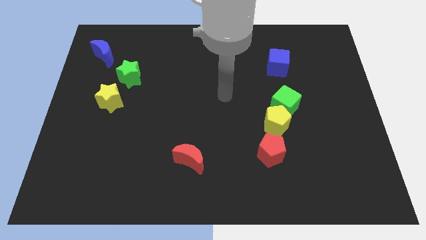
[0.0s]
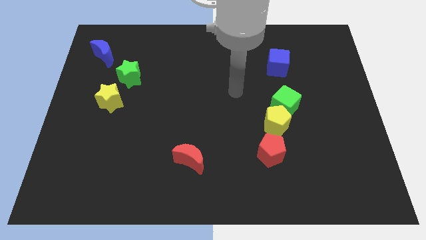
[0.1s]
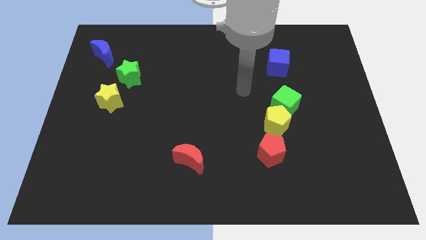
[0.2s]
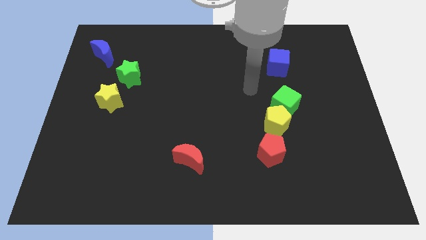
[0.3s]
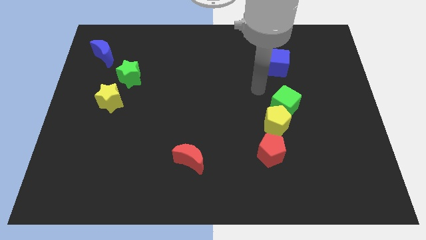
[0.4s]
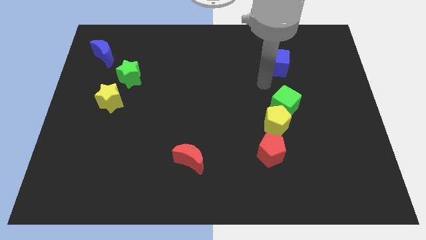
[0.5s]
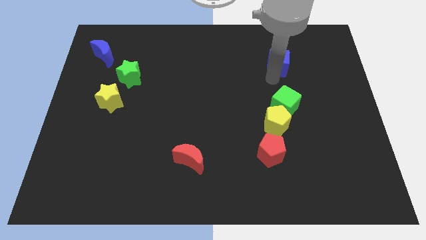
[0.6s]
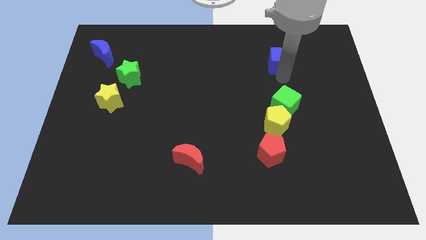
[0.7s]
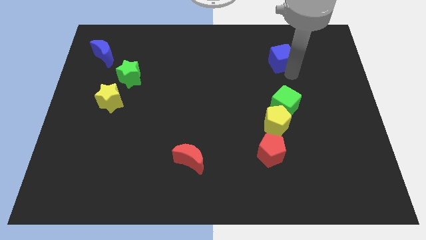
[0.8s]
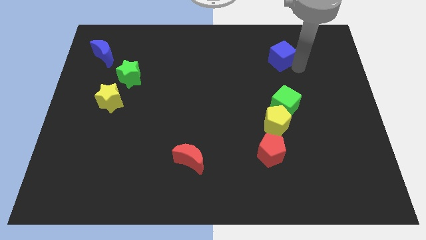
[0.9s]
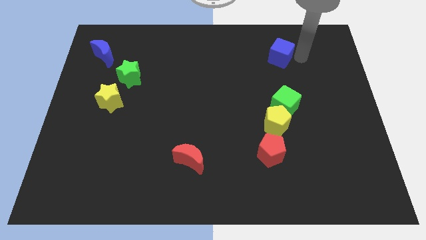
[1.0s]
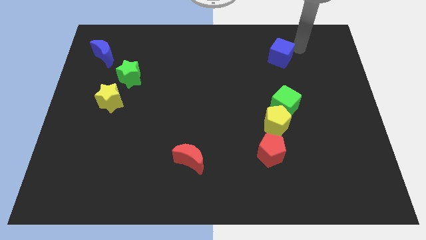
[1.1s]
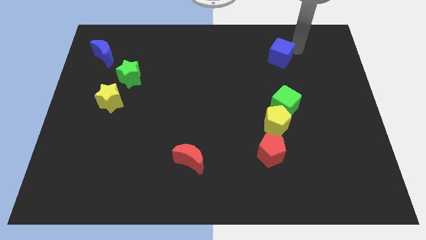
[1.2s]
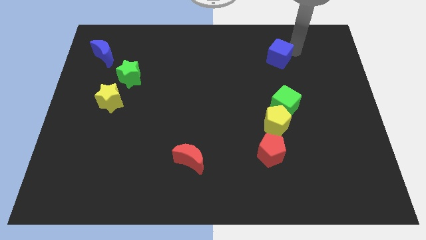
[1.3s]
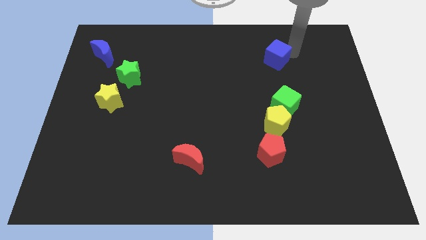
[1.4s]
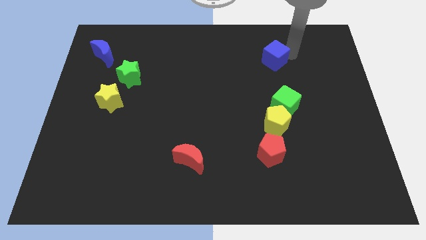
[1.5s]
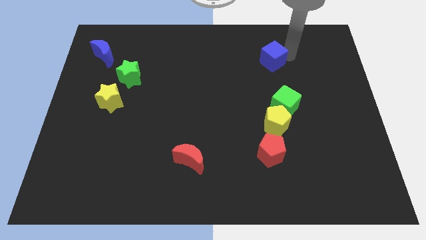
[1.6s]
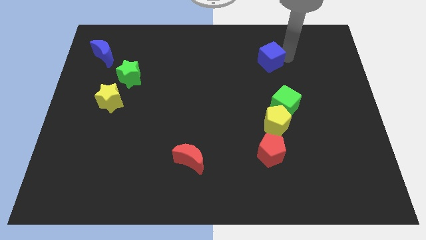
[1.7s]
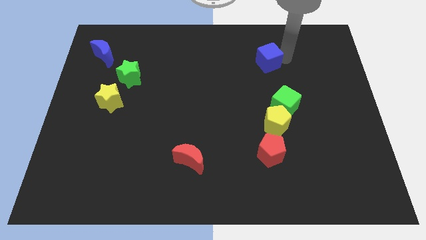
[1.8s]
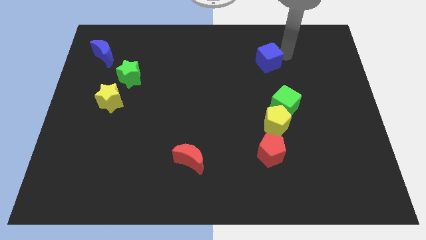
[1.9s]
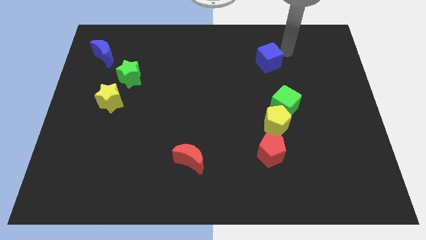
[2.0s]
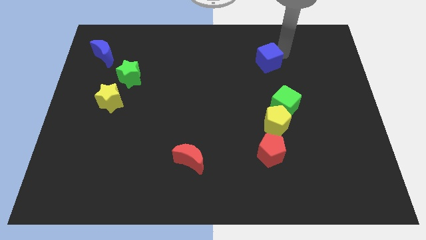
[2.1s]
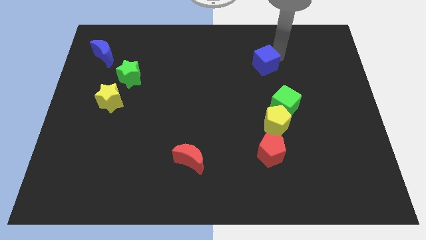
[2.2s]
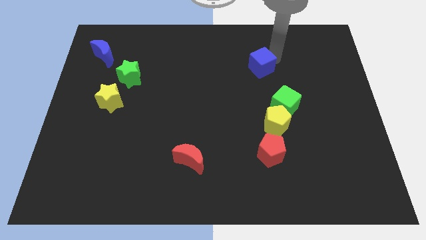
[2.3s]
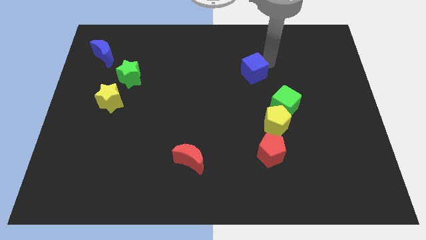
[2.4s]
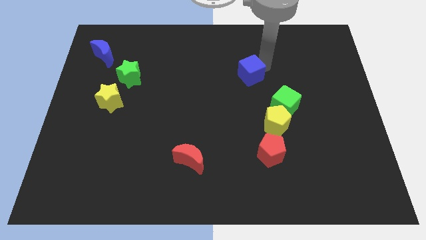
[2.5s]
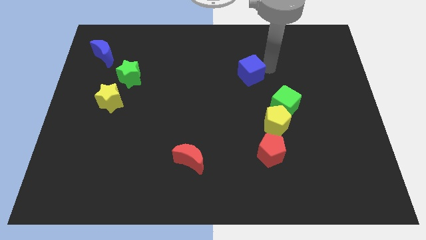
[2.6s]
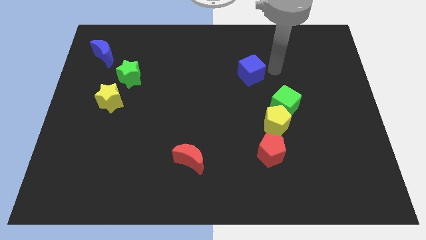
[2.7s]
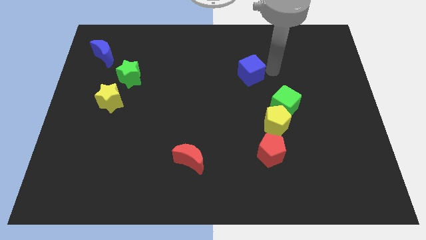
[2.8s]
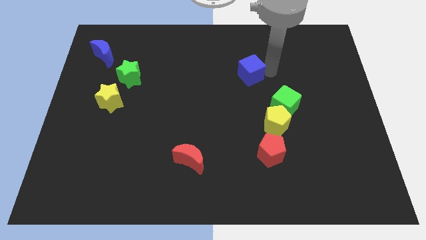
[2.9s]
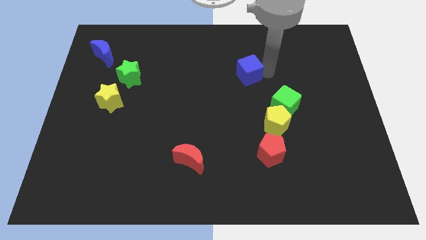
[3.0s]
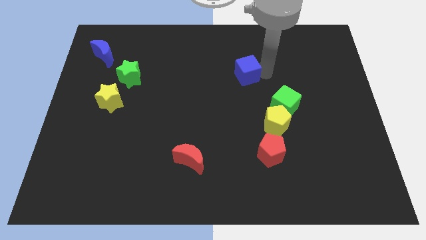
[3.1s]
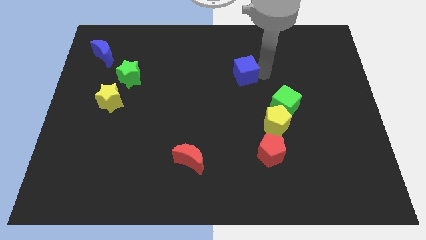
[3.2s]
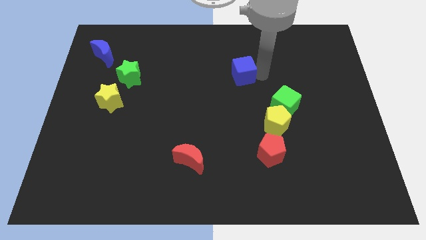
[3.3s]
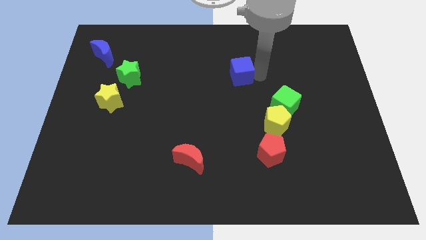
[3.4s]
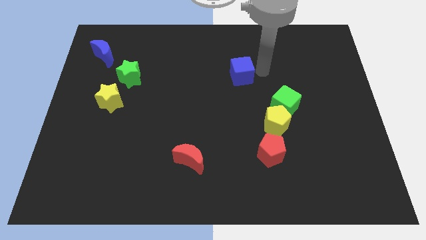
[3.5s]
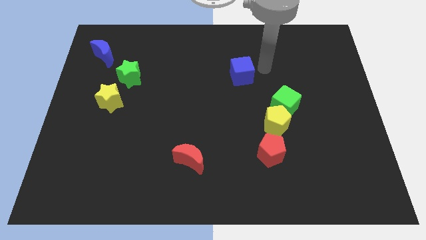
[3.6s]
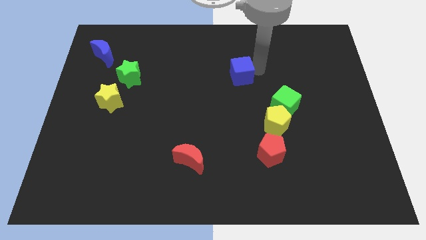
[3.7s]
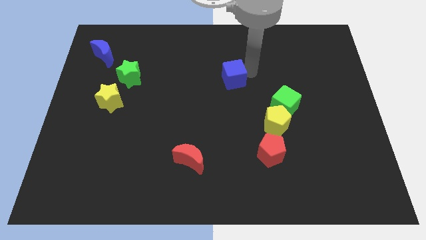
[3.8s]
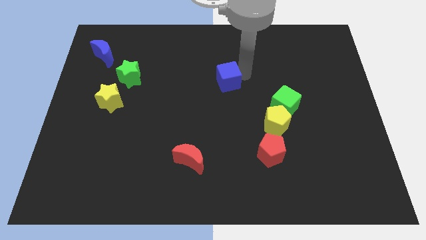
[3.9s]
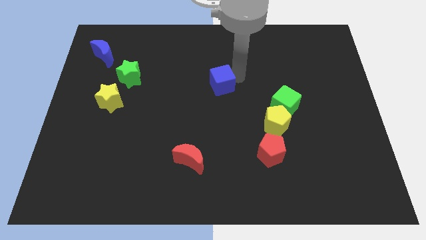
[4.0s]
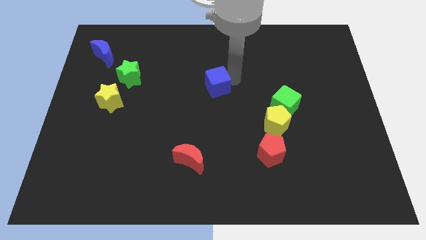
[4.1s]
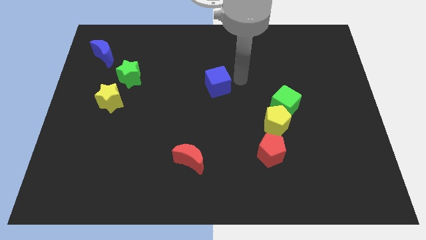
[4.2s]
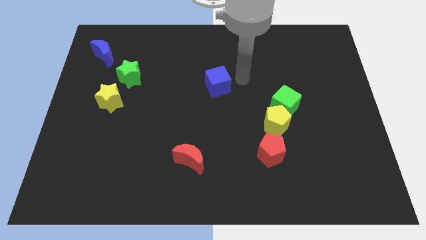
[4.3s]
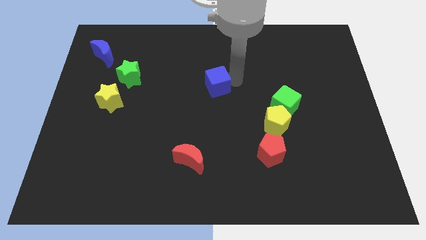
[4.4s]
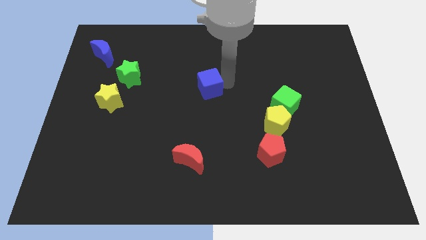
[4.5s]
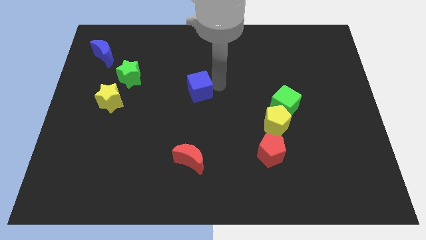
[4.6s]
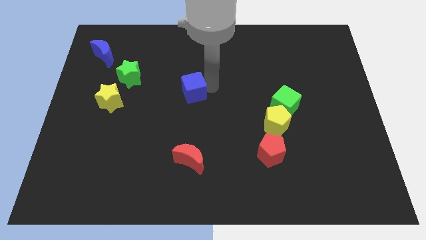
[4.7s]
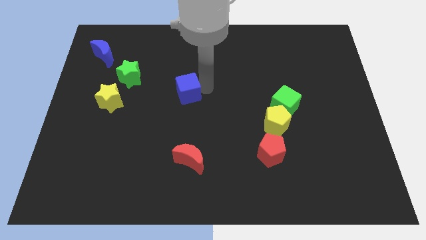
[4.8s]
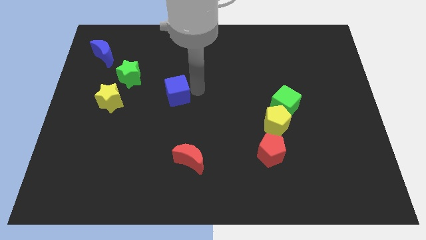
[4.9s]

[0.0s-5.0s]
slide the blue cube to the right side of the yellow star

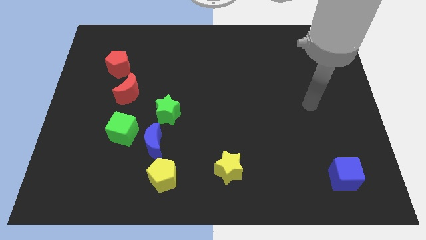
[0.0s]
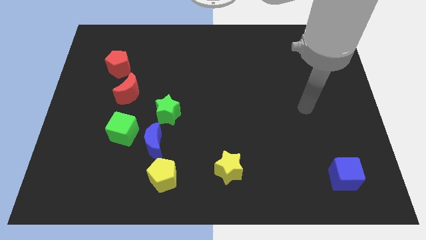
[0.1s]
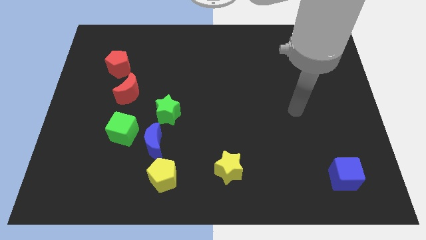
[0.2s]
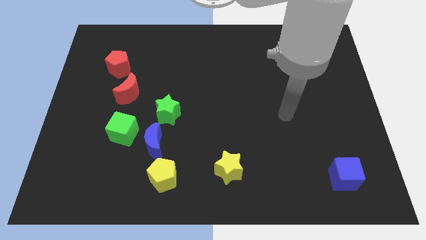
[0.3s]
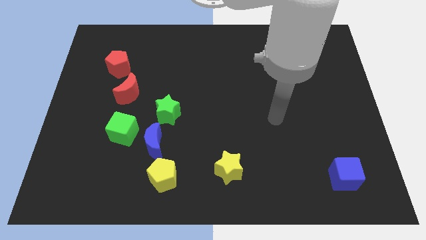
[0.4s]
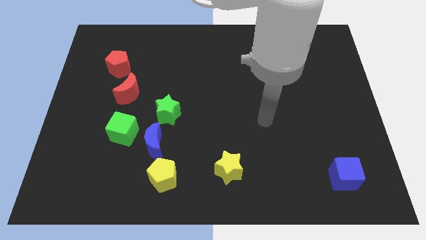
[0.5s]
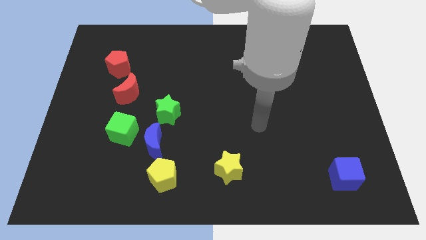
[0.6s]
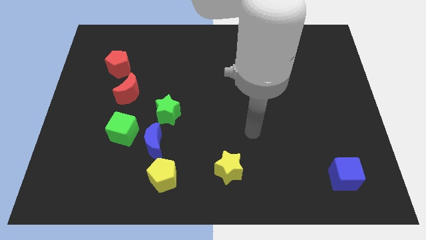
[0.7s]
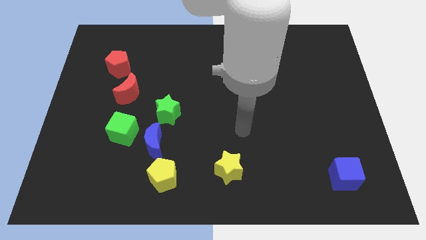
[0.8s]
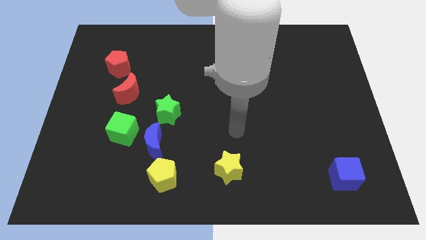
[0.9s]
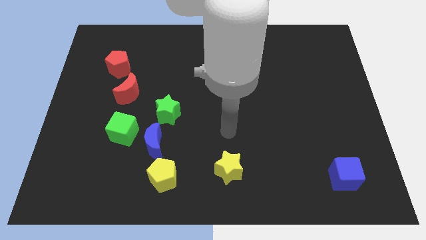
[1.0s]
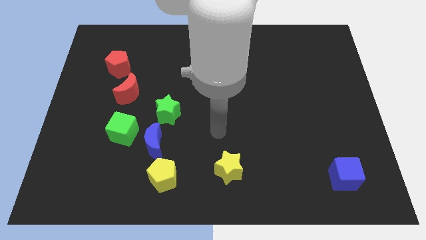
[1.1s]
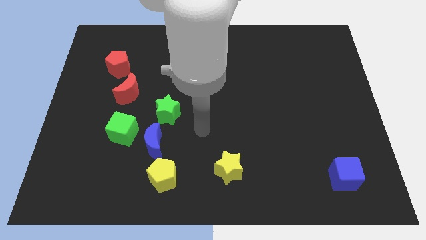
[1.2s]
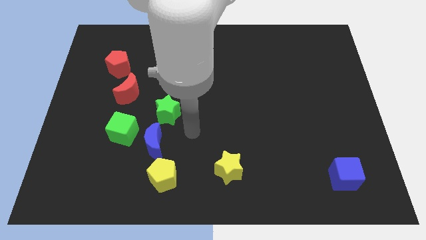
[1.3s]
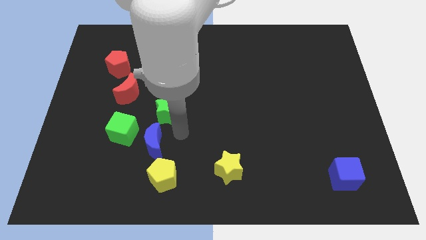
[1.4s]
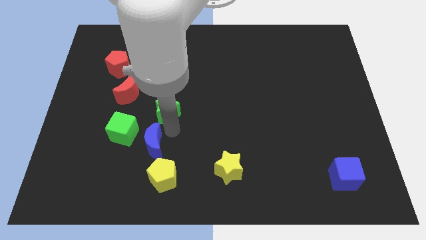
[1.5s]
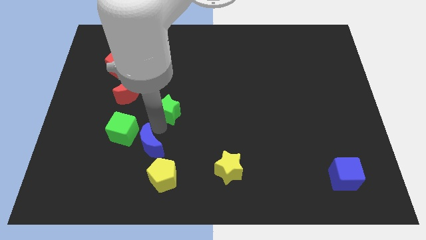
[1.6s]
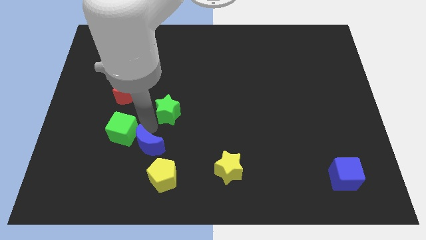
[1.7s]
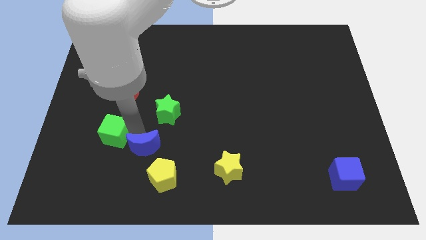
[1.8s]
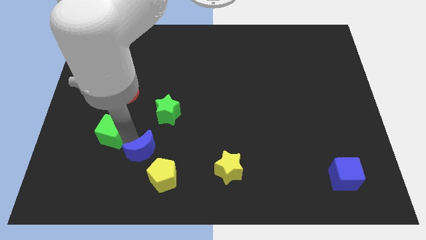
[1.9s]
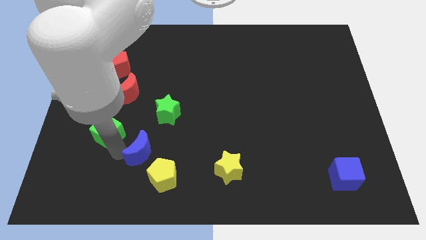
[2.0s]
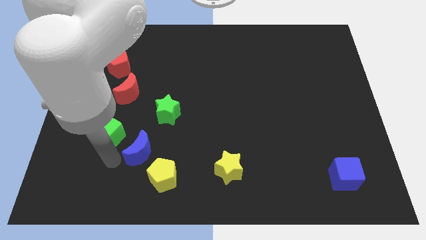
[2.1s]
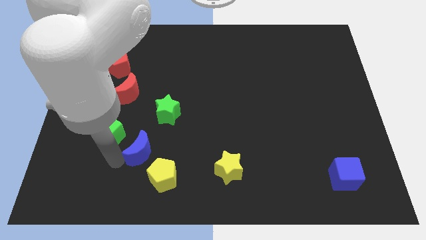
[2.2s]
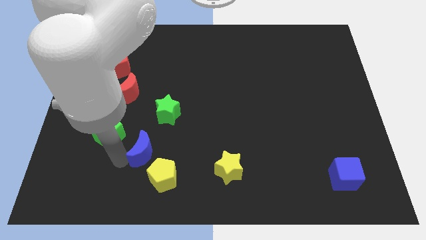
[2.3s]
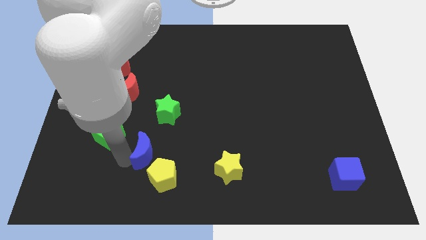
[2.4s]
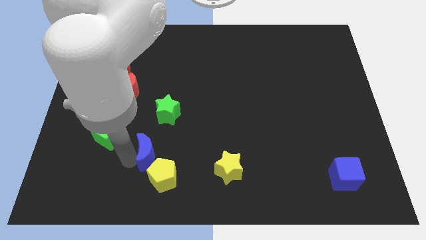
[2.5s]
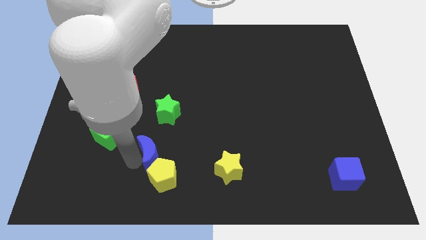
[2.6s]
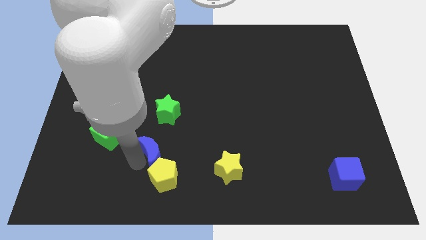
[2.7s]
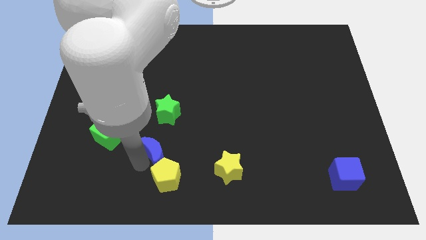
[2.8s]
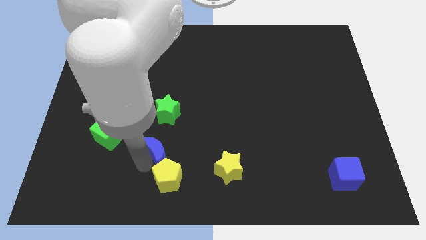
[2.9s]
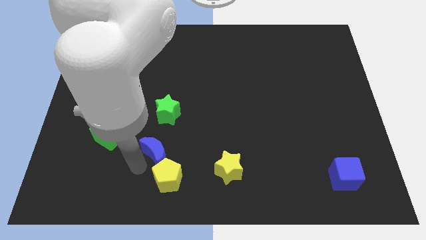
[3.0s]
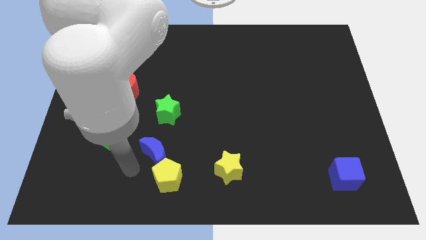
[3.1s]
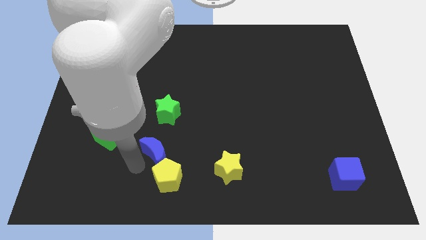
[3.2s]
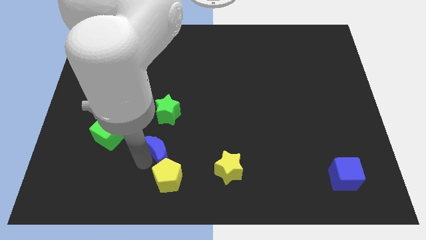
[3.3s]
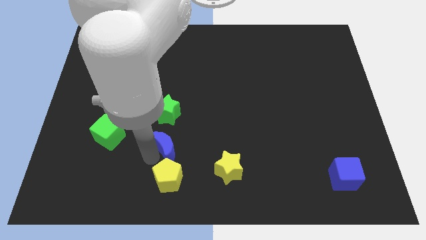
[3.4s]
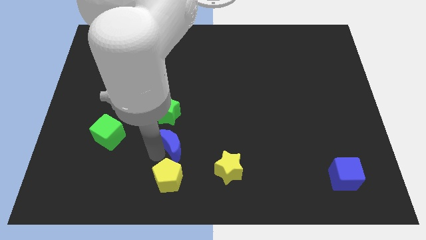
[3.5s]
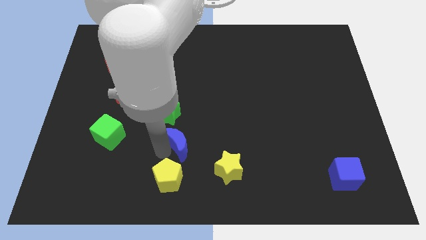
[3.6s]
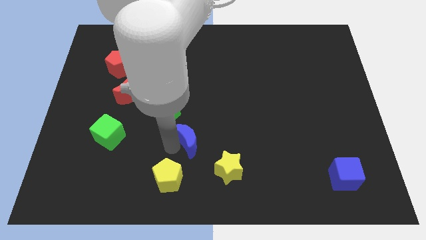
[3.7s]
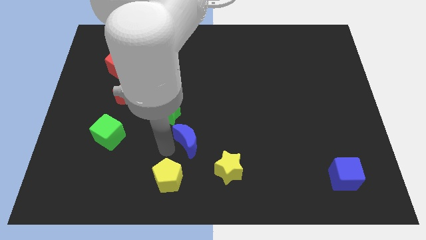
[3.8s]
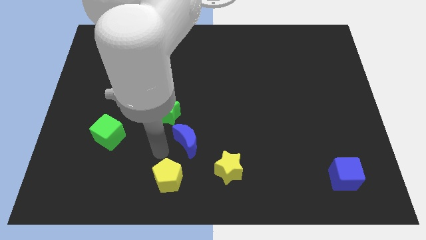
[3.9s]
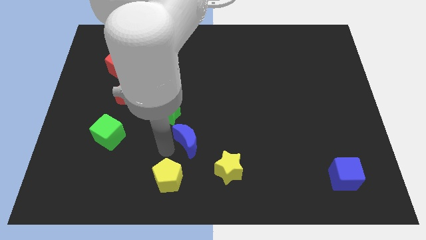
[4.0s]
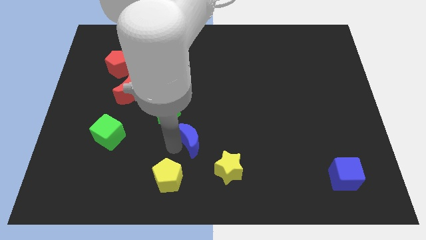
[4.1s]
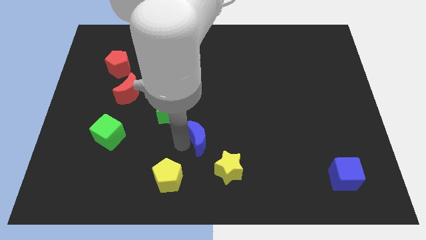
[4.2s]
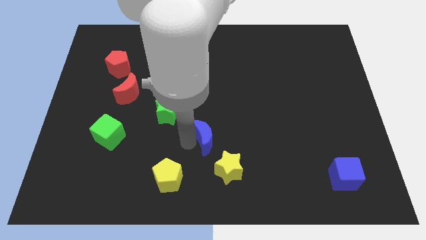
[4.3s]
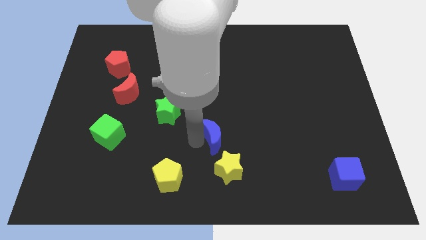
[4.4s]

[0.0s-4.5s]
move the blue moon to the top side of the yellow star
